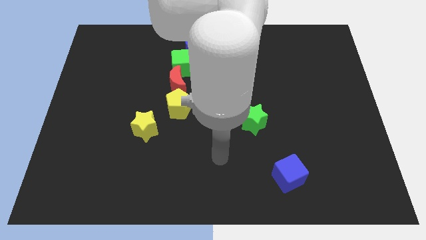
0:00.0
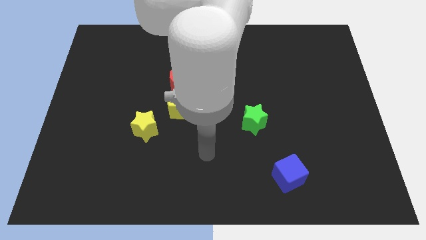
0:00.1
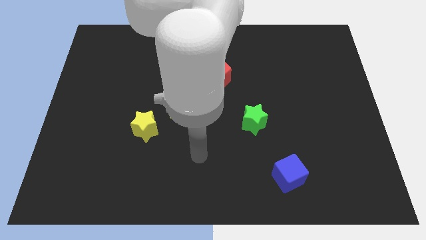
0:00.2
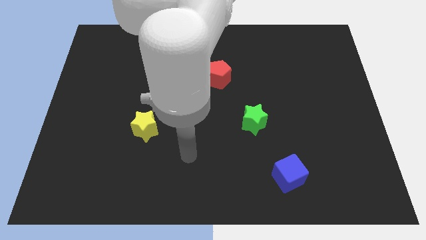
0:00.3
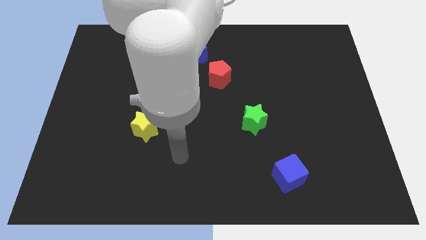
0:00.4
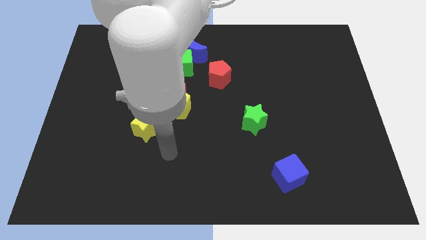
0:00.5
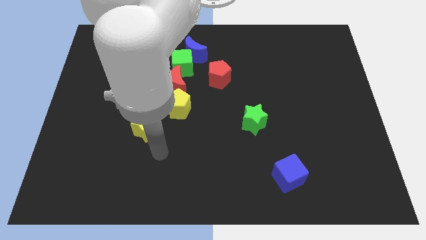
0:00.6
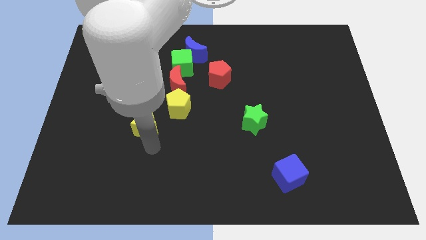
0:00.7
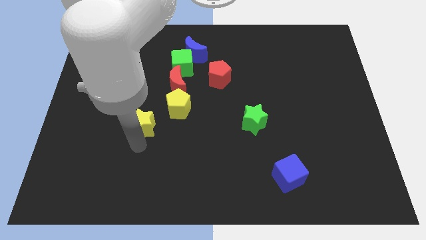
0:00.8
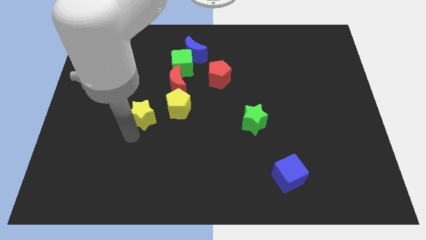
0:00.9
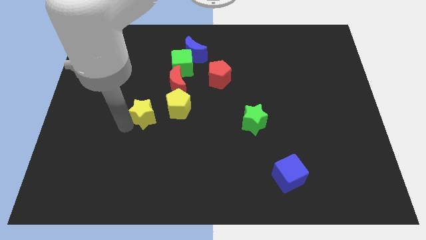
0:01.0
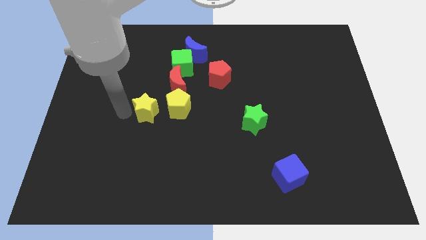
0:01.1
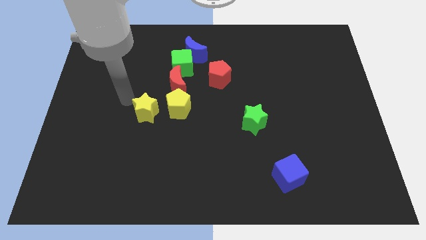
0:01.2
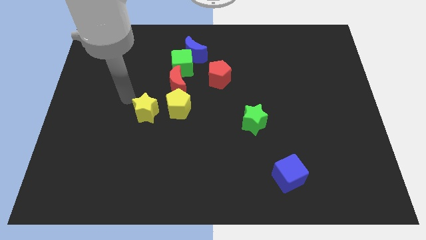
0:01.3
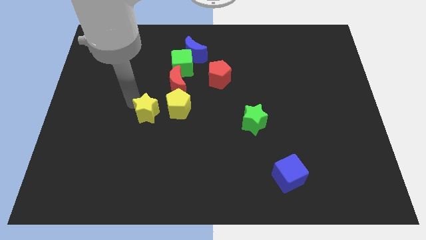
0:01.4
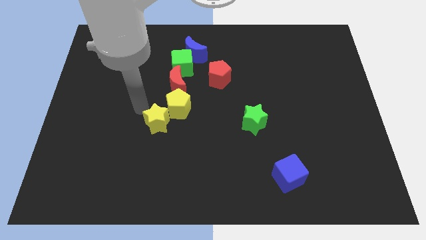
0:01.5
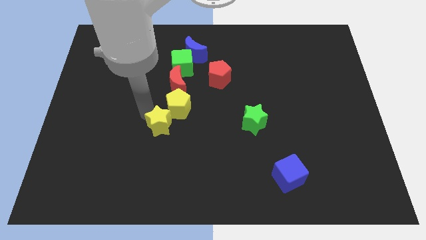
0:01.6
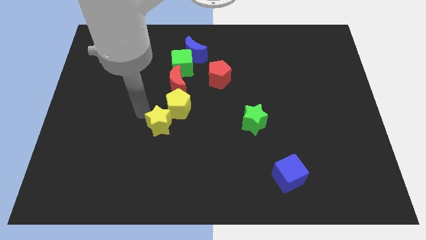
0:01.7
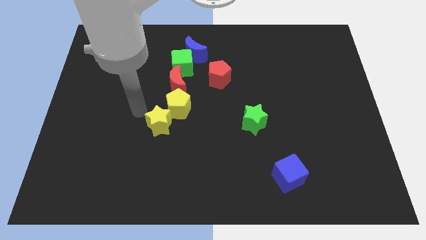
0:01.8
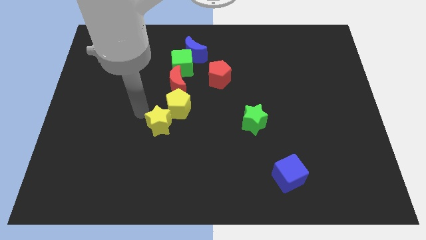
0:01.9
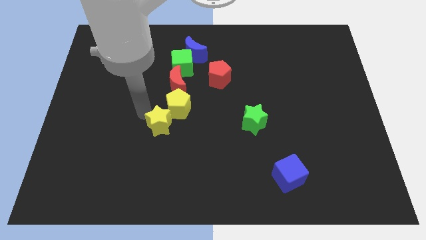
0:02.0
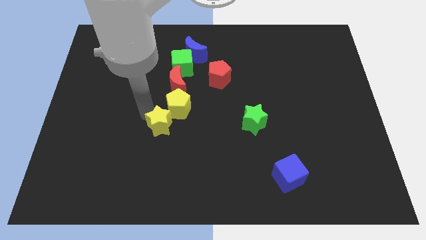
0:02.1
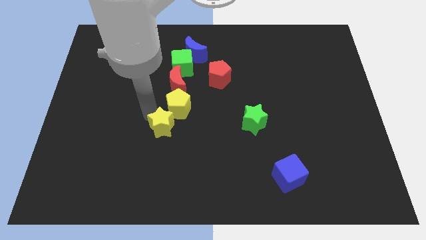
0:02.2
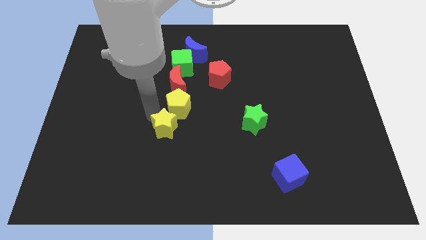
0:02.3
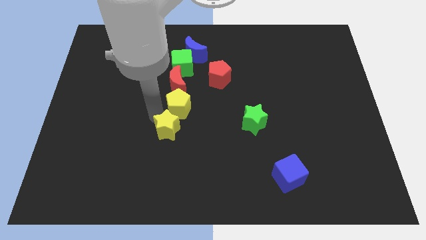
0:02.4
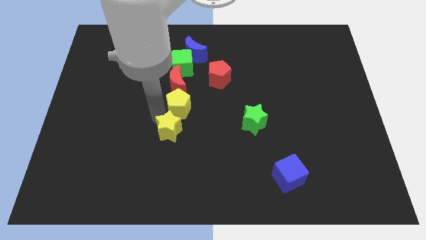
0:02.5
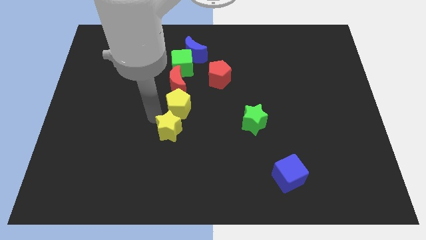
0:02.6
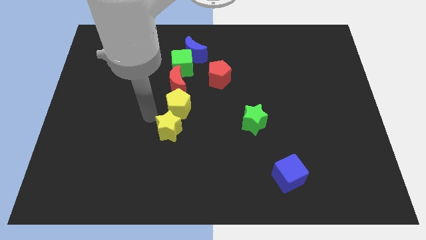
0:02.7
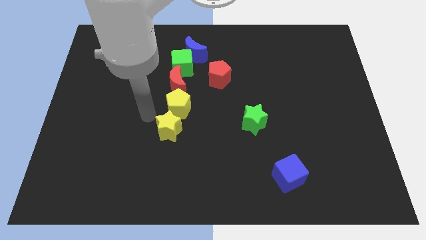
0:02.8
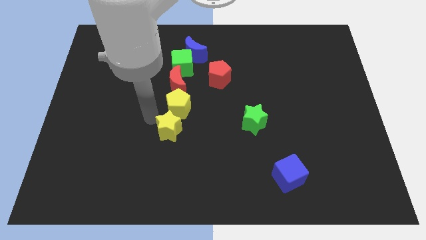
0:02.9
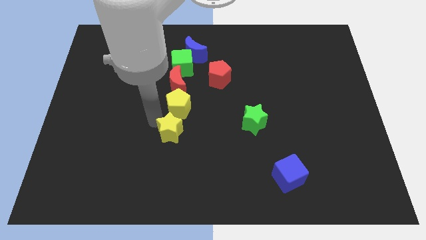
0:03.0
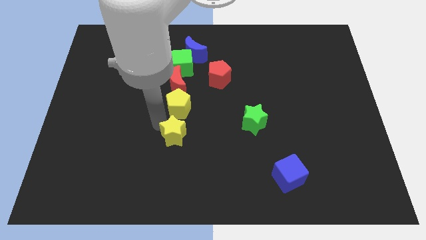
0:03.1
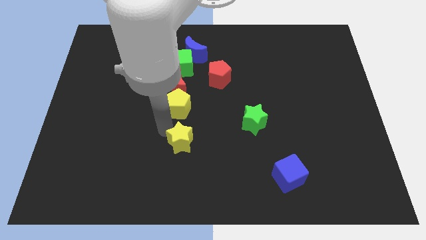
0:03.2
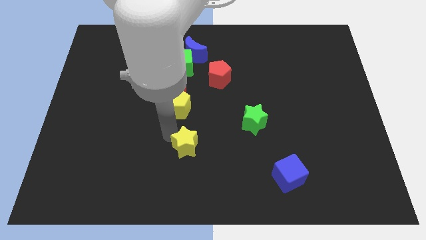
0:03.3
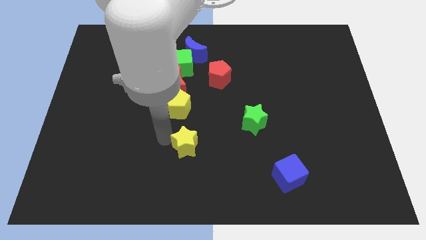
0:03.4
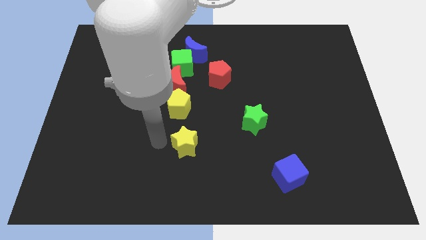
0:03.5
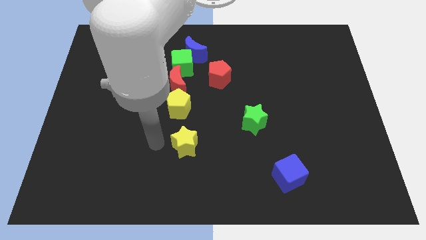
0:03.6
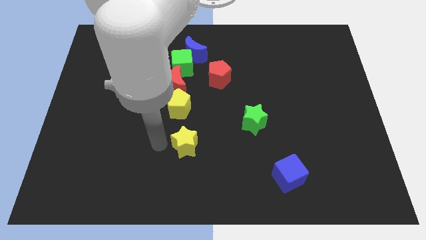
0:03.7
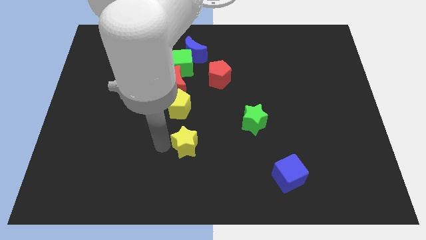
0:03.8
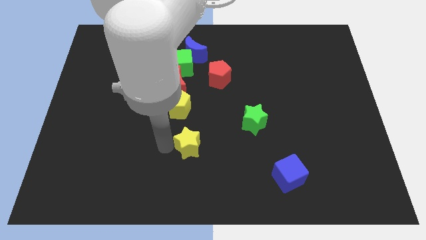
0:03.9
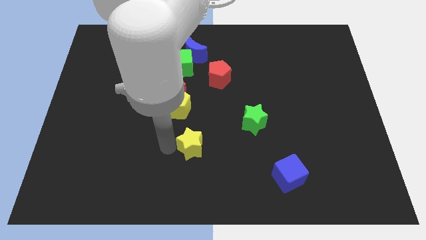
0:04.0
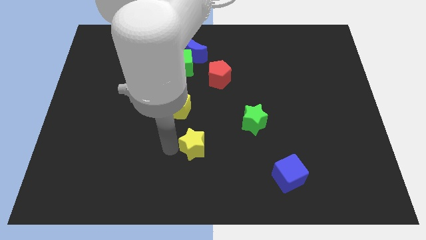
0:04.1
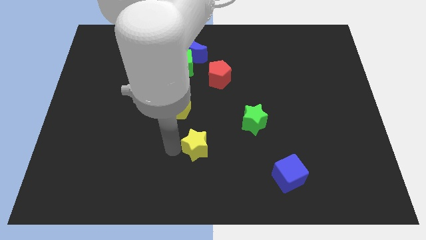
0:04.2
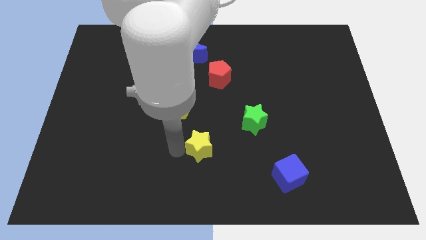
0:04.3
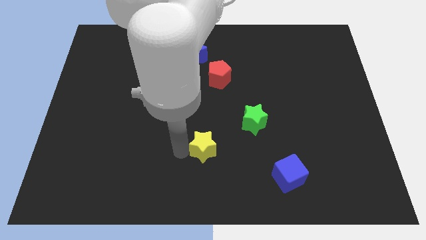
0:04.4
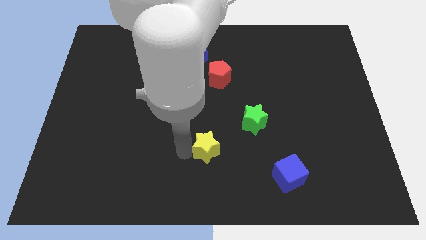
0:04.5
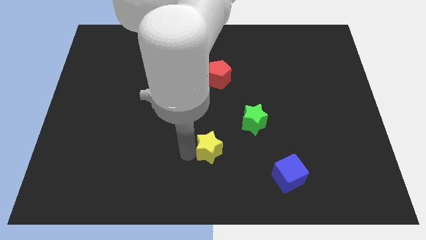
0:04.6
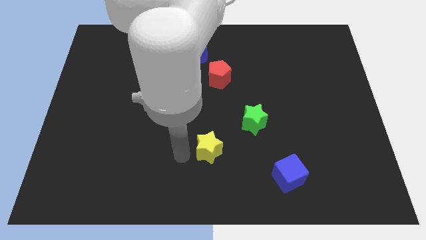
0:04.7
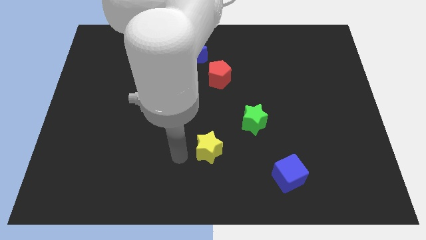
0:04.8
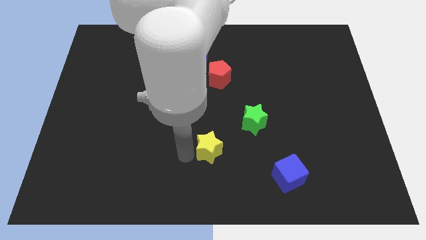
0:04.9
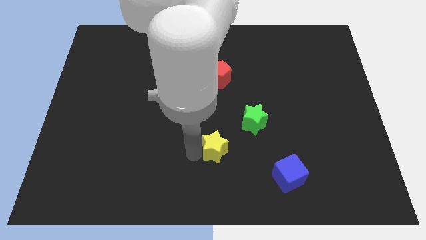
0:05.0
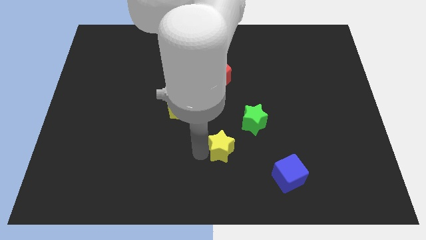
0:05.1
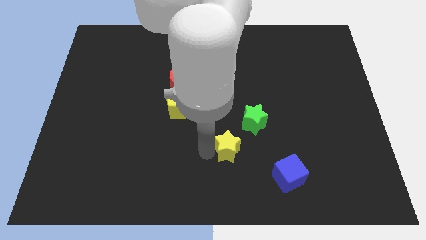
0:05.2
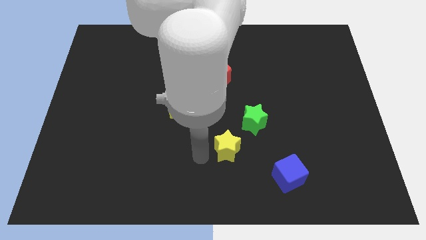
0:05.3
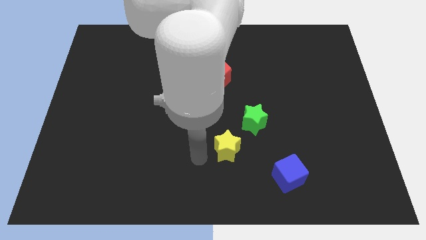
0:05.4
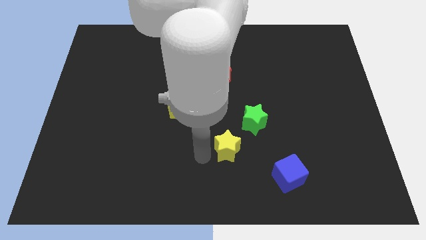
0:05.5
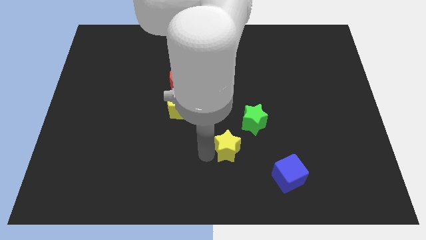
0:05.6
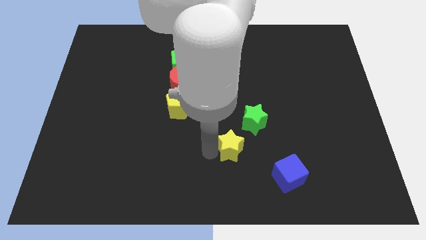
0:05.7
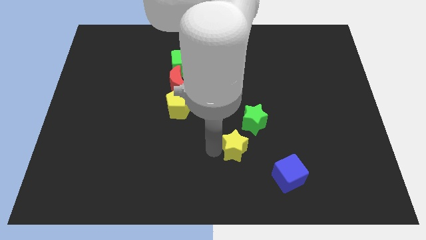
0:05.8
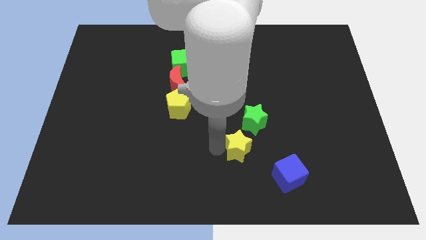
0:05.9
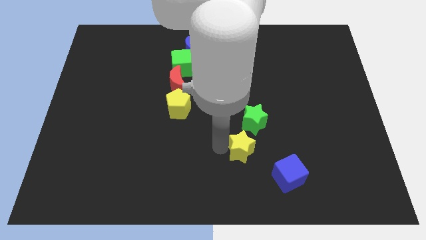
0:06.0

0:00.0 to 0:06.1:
move the yellow star to the right

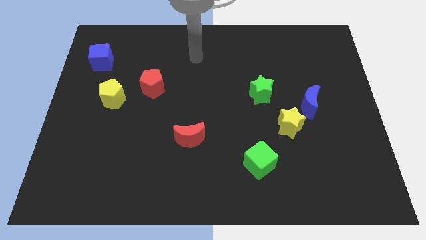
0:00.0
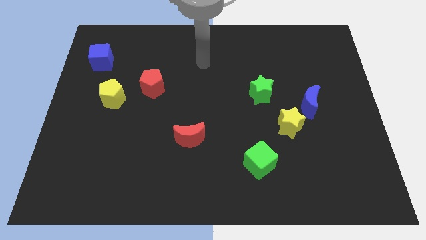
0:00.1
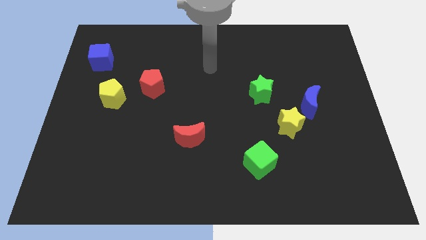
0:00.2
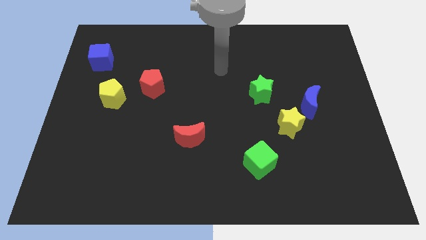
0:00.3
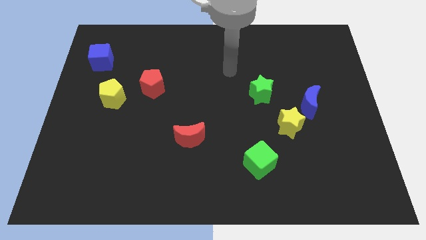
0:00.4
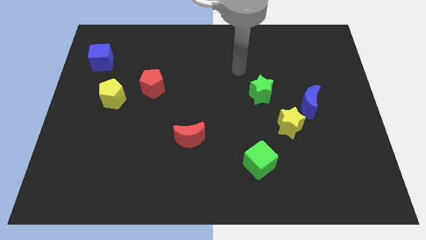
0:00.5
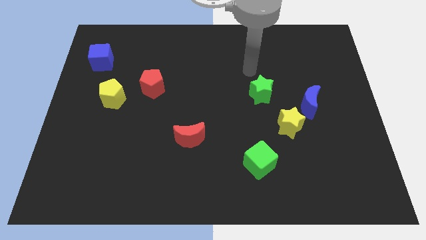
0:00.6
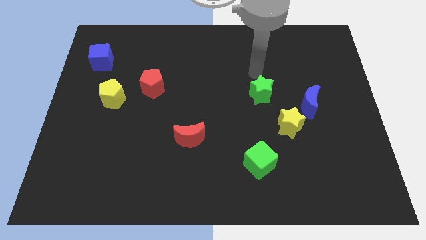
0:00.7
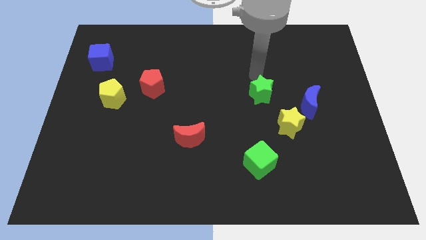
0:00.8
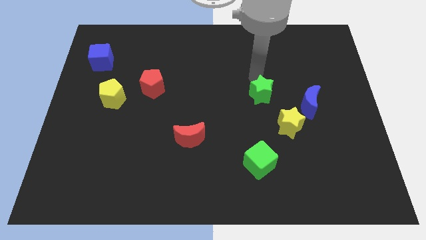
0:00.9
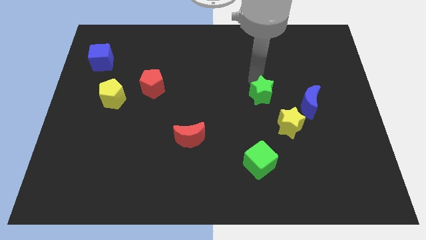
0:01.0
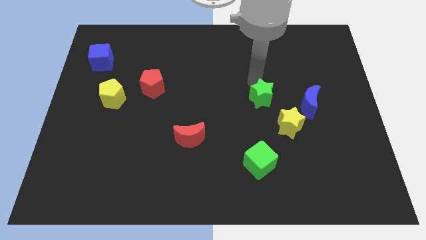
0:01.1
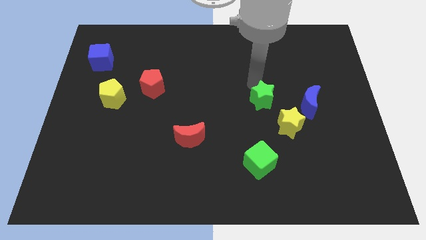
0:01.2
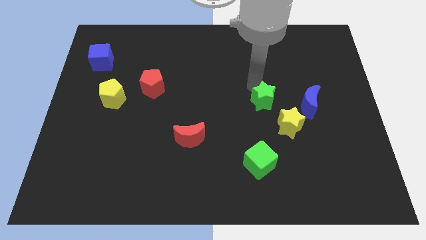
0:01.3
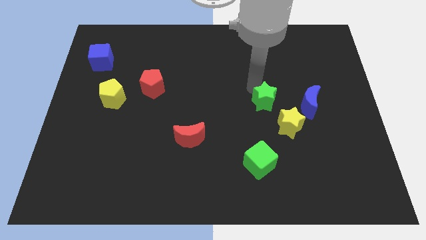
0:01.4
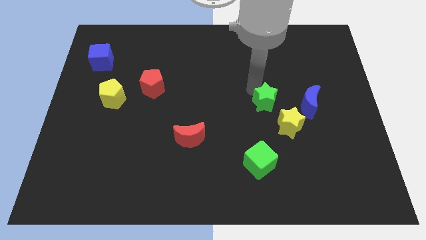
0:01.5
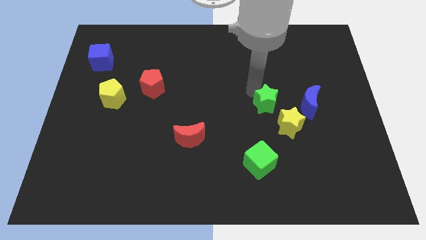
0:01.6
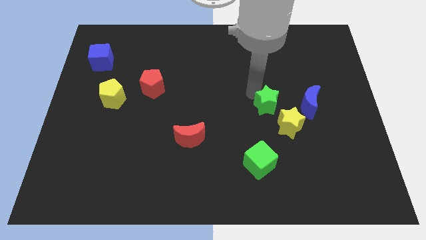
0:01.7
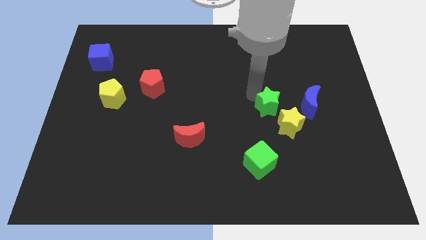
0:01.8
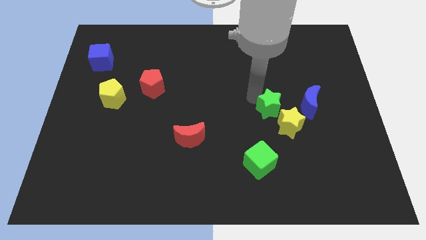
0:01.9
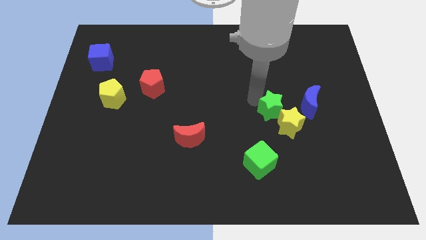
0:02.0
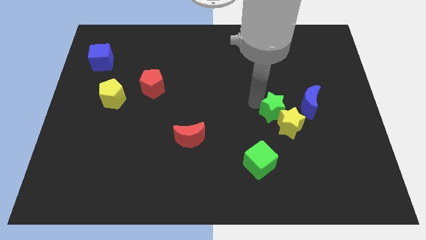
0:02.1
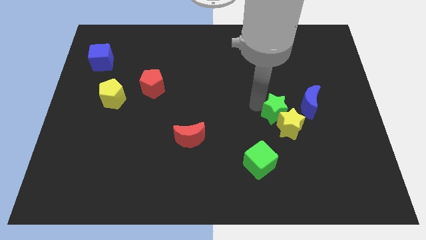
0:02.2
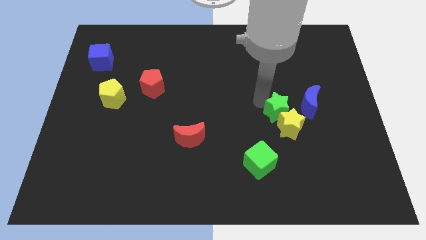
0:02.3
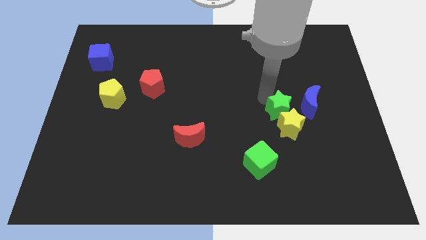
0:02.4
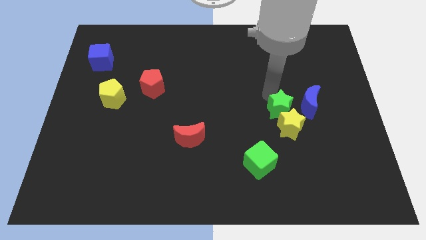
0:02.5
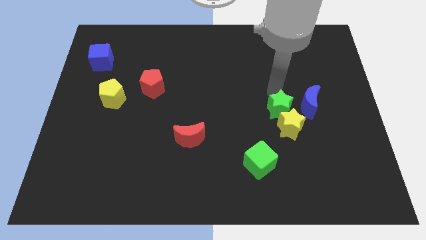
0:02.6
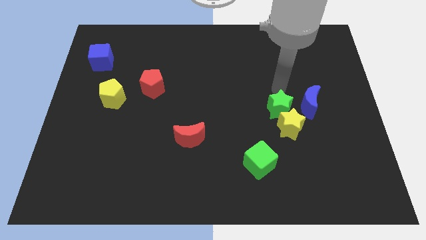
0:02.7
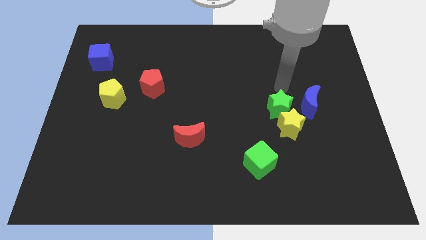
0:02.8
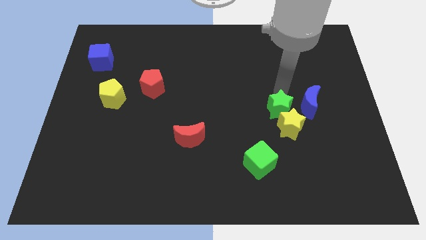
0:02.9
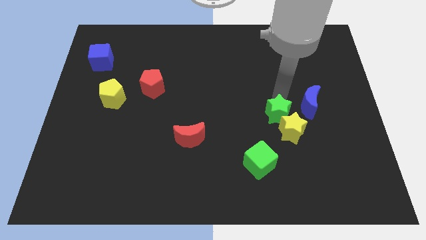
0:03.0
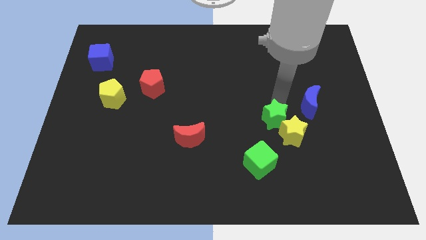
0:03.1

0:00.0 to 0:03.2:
slightly push the green star diagonally downwards and to the right
